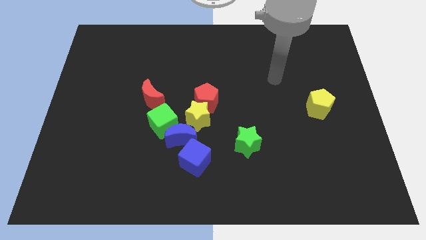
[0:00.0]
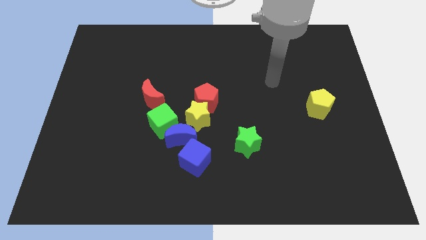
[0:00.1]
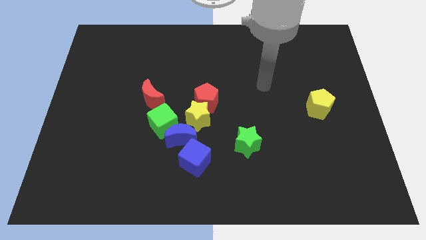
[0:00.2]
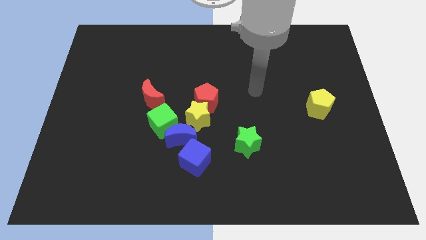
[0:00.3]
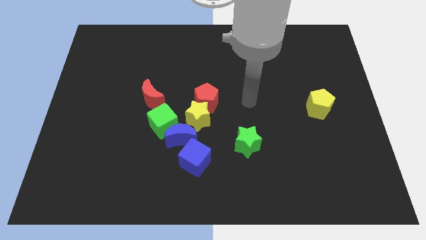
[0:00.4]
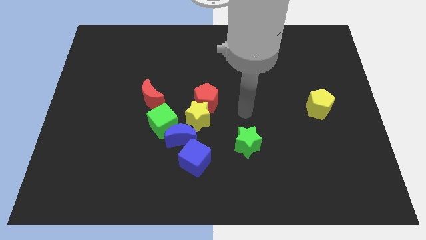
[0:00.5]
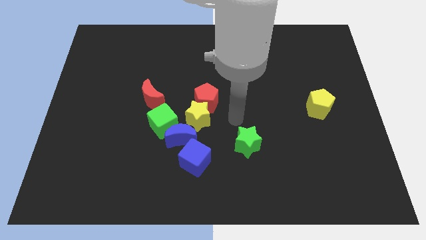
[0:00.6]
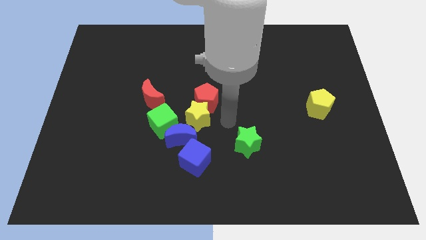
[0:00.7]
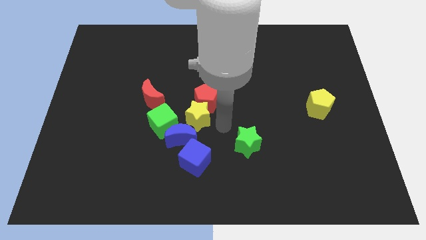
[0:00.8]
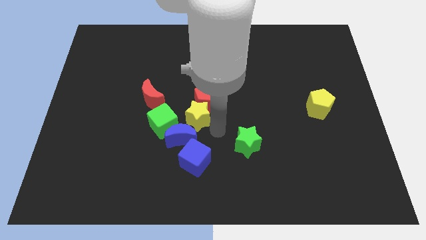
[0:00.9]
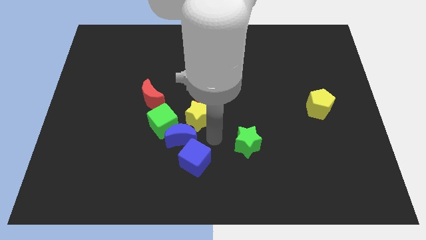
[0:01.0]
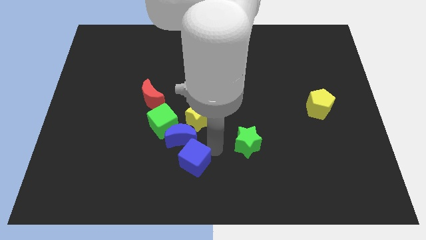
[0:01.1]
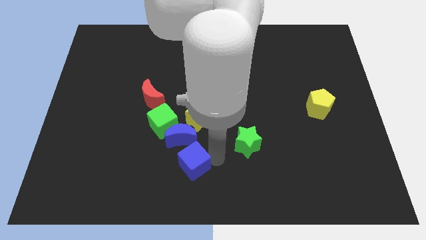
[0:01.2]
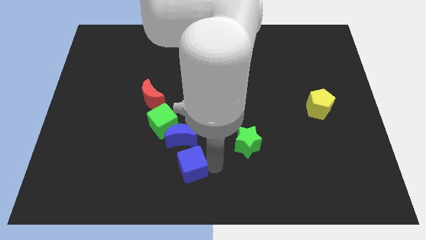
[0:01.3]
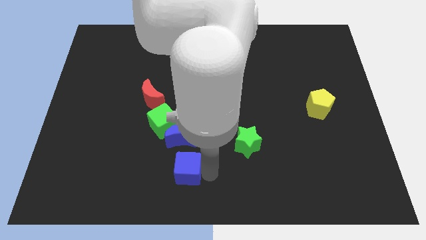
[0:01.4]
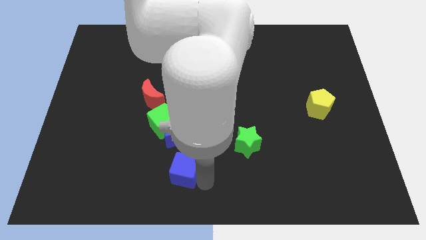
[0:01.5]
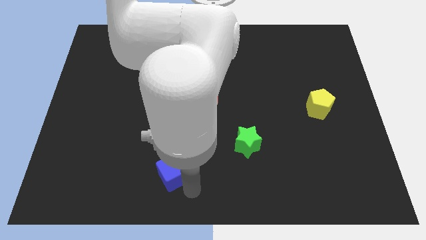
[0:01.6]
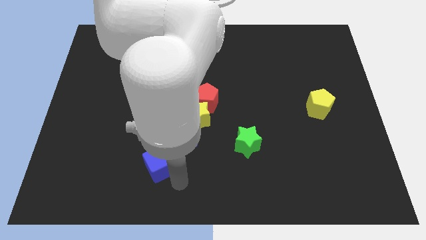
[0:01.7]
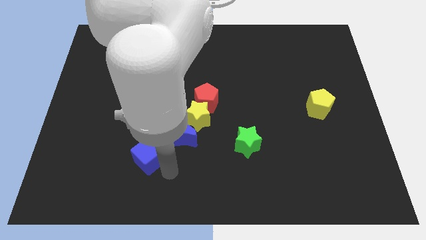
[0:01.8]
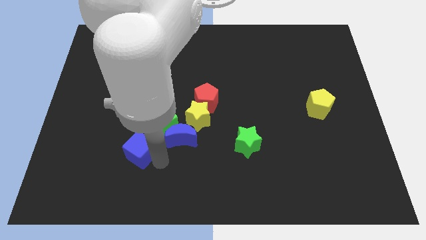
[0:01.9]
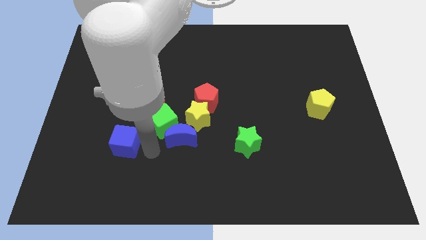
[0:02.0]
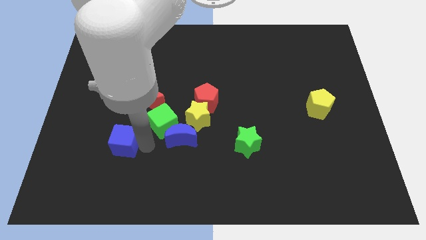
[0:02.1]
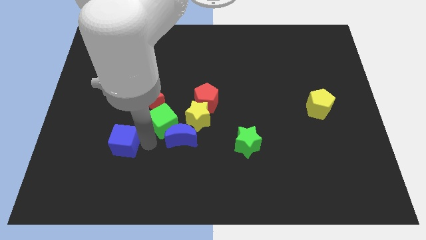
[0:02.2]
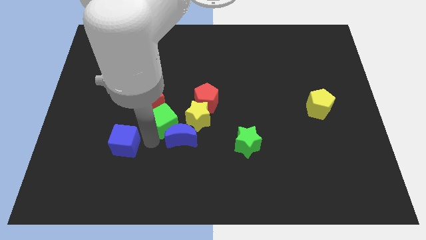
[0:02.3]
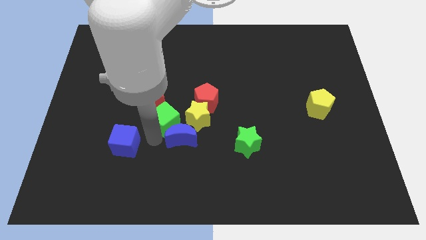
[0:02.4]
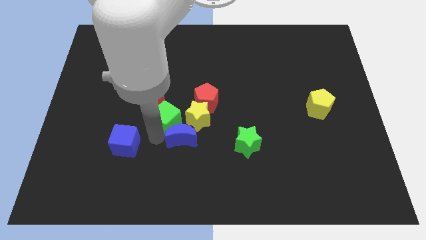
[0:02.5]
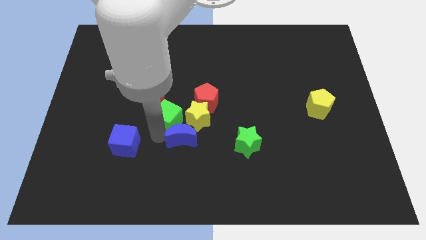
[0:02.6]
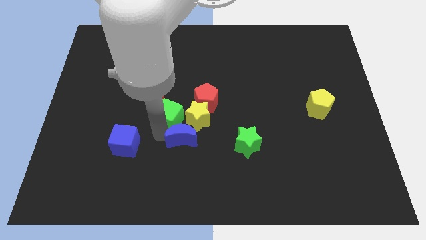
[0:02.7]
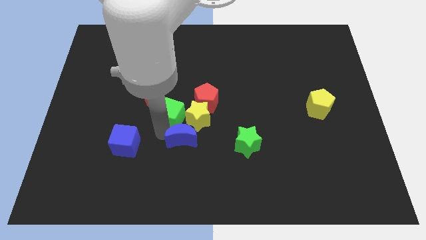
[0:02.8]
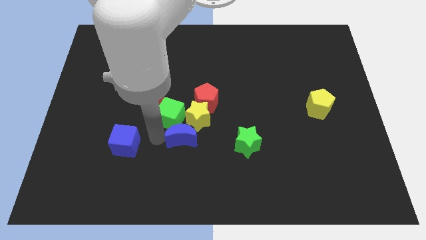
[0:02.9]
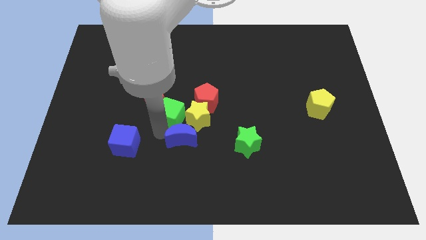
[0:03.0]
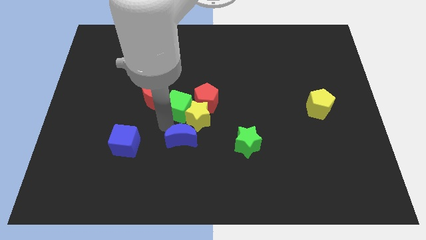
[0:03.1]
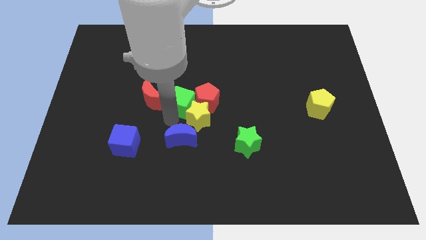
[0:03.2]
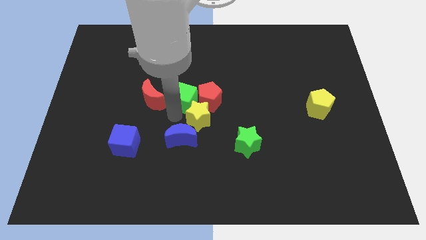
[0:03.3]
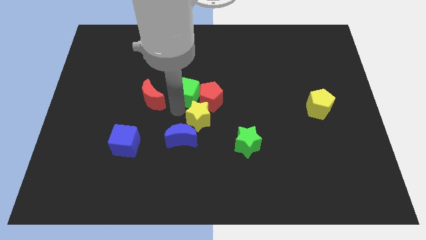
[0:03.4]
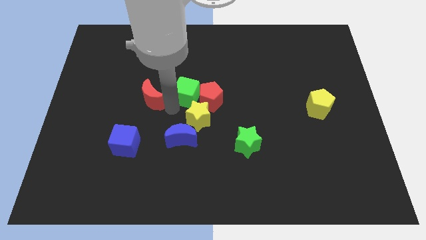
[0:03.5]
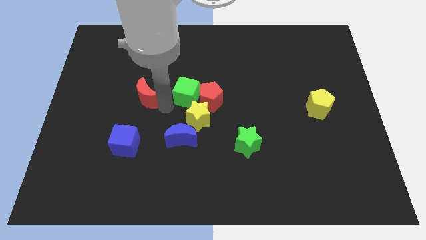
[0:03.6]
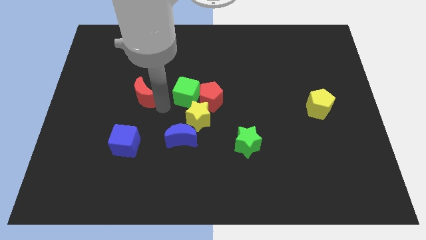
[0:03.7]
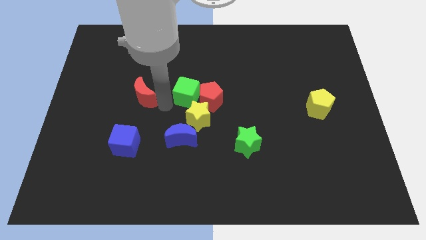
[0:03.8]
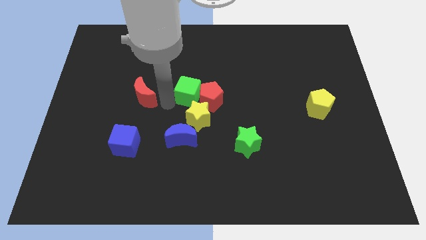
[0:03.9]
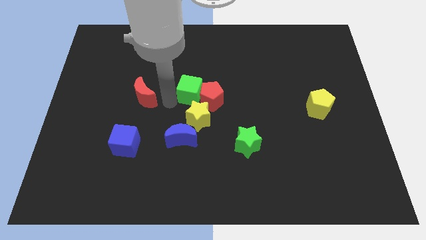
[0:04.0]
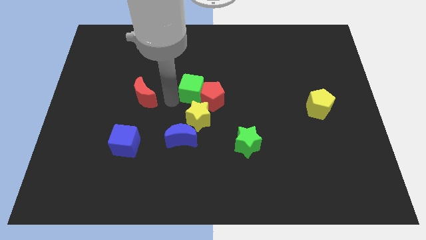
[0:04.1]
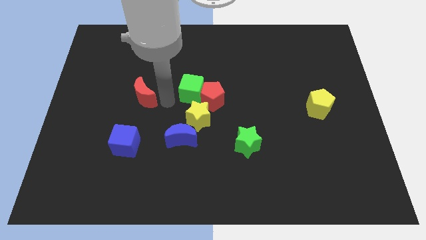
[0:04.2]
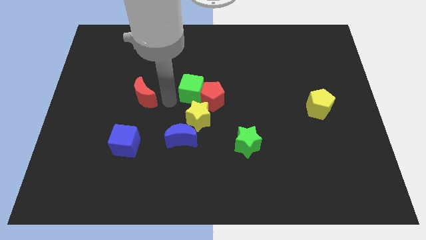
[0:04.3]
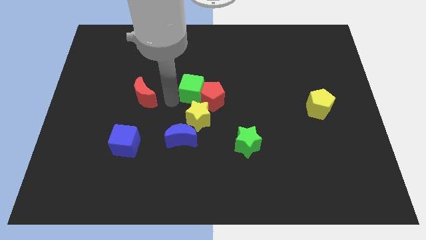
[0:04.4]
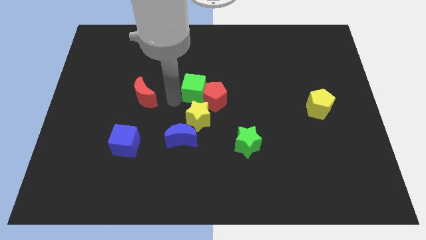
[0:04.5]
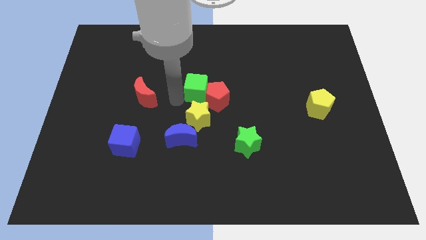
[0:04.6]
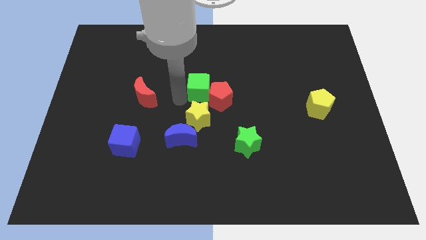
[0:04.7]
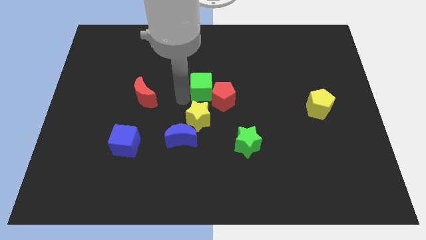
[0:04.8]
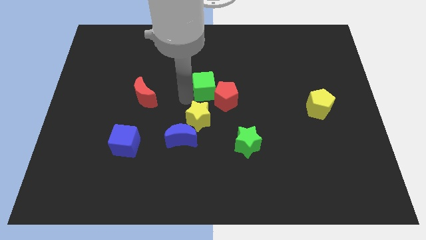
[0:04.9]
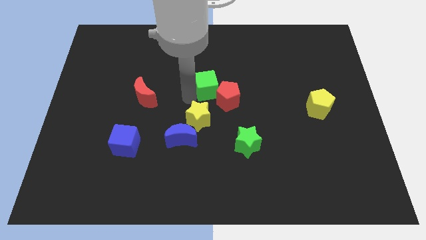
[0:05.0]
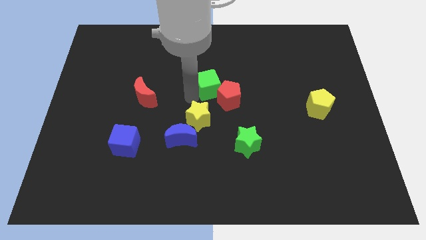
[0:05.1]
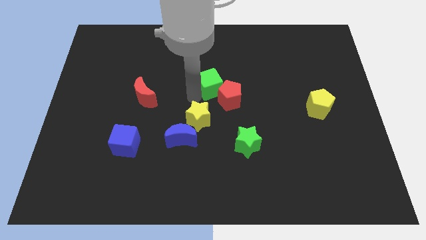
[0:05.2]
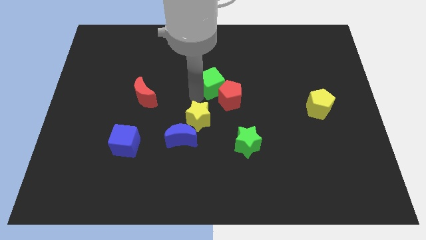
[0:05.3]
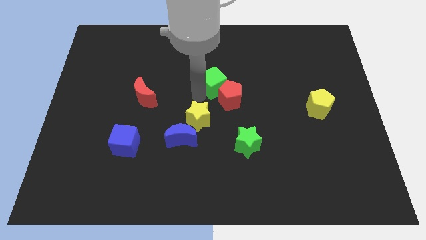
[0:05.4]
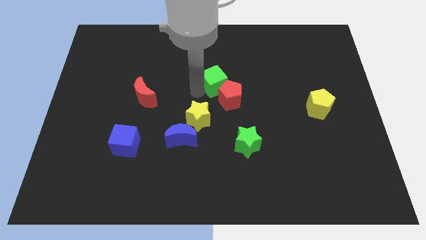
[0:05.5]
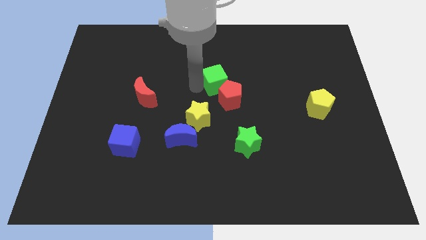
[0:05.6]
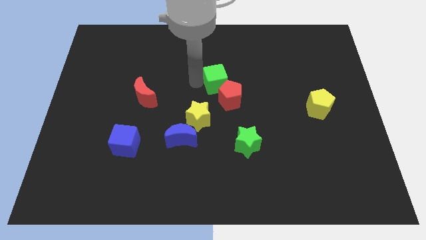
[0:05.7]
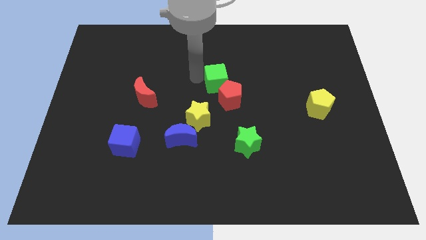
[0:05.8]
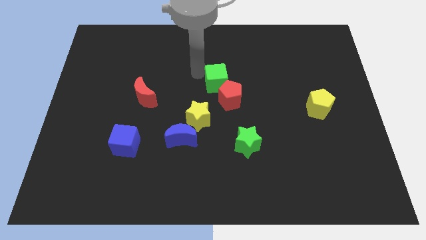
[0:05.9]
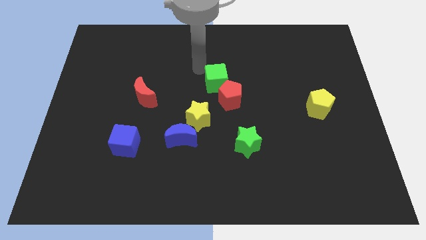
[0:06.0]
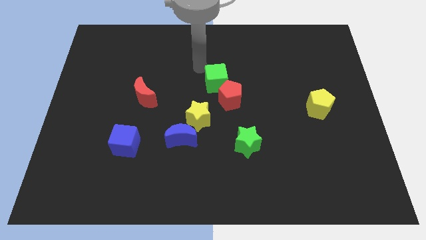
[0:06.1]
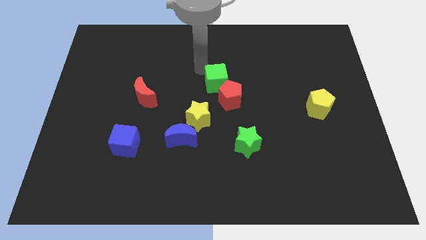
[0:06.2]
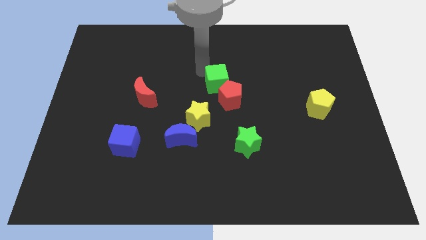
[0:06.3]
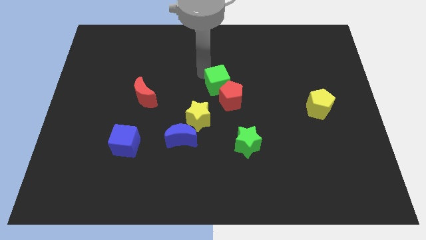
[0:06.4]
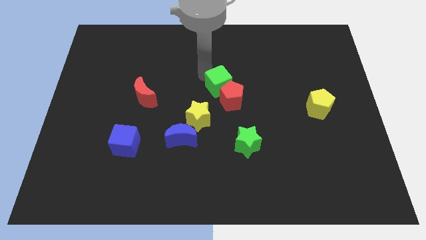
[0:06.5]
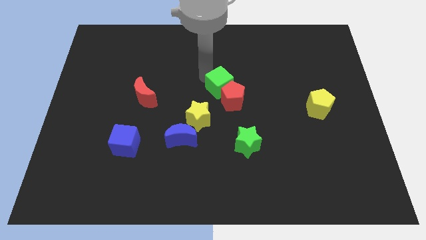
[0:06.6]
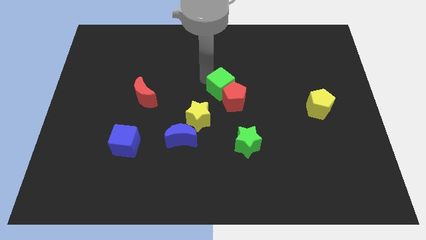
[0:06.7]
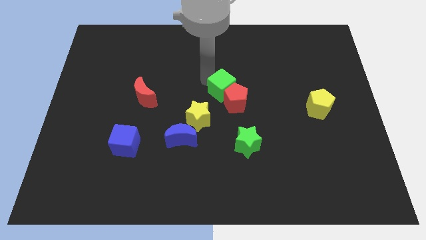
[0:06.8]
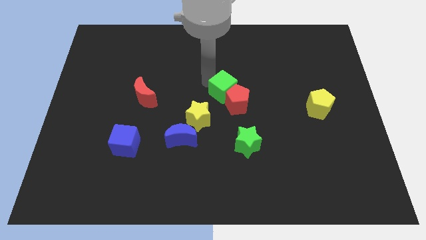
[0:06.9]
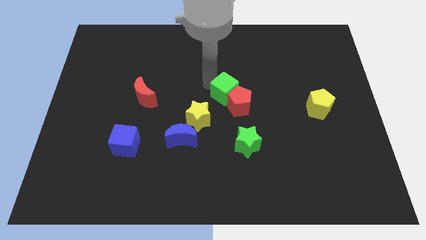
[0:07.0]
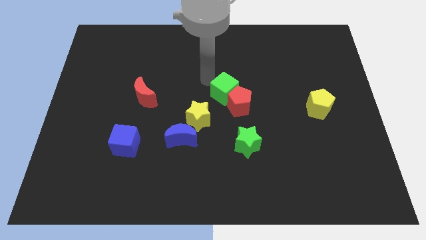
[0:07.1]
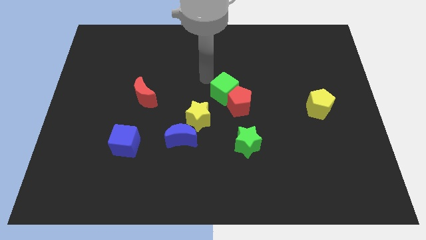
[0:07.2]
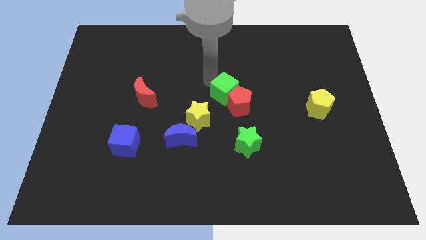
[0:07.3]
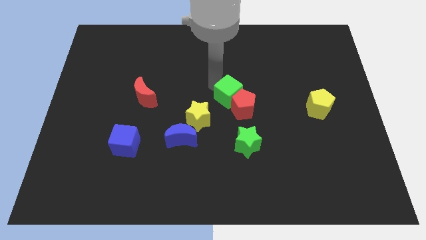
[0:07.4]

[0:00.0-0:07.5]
move the green cube to the top of the green star

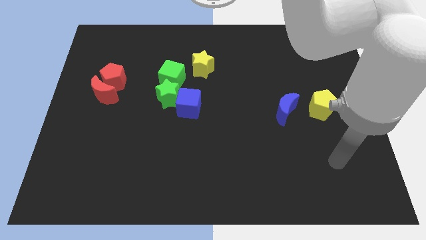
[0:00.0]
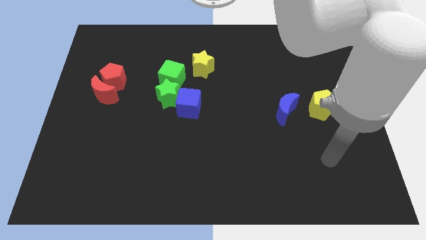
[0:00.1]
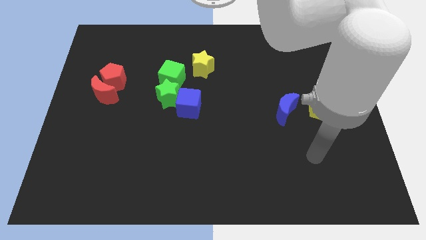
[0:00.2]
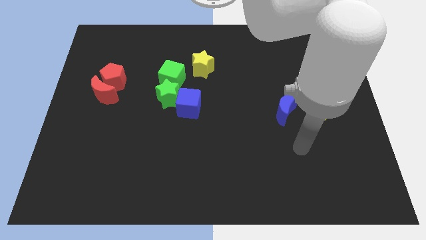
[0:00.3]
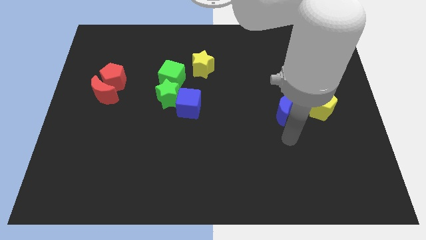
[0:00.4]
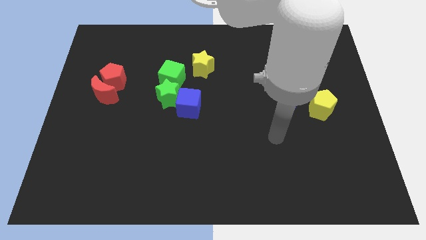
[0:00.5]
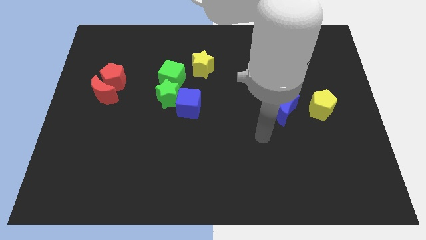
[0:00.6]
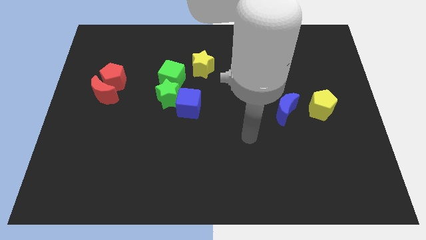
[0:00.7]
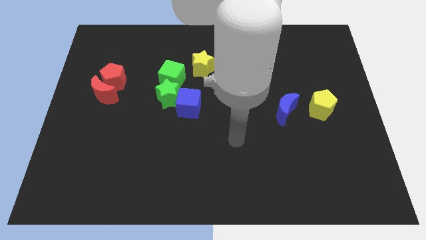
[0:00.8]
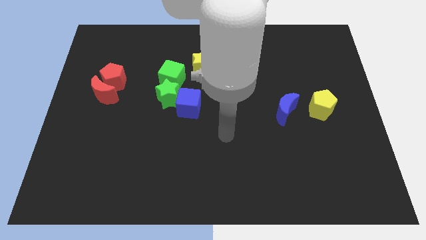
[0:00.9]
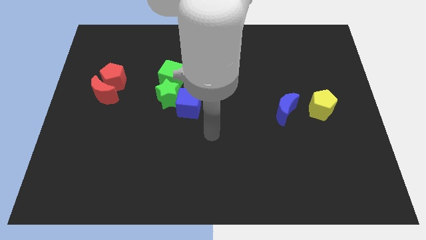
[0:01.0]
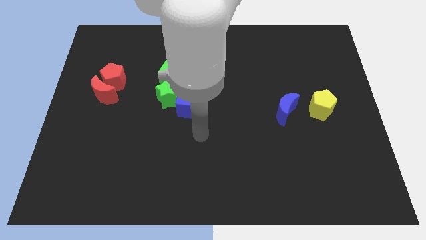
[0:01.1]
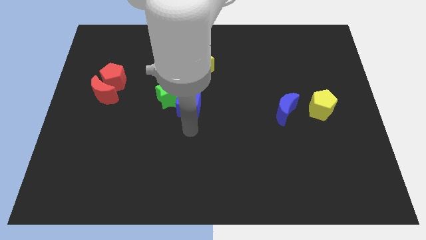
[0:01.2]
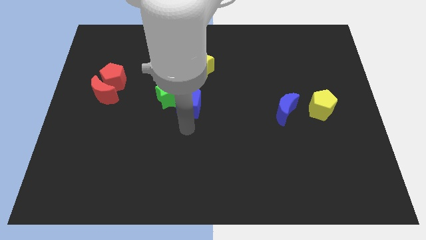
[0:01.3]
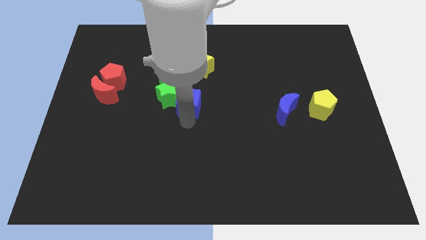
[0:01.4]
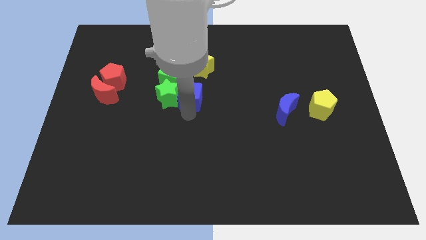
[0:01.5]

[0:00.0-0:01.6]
push the blue cube to the top right of the green star
